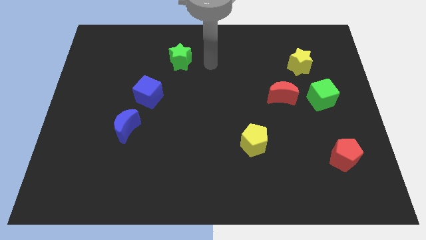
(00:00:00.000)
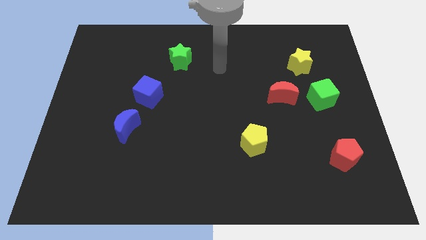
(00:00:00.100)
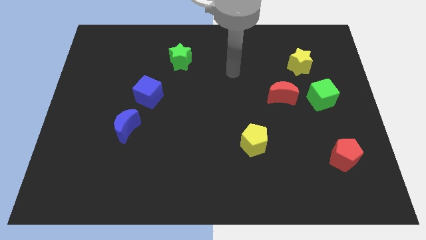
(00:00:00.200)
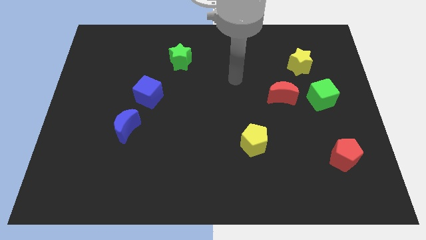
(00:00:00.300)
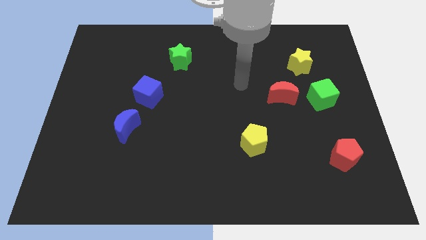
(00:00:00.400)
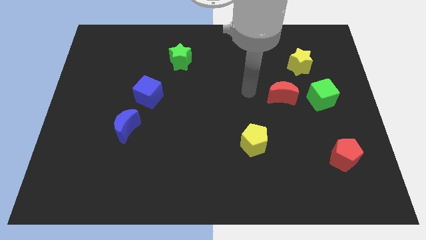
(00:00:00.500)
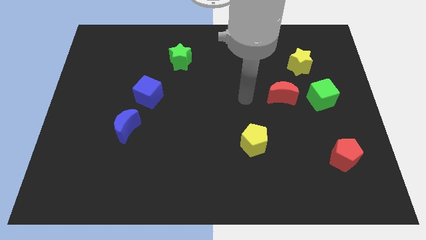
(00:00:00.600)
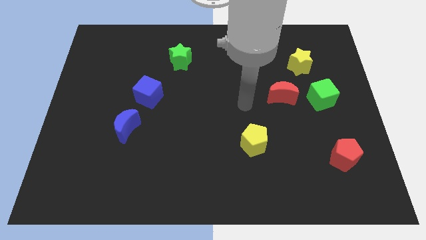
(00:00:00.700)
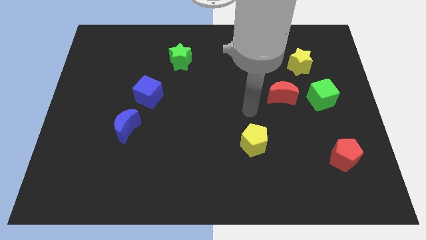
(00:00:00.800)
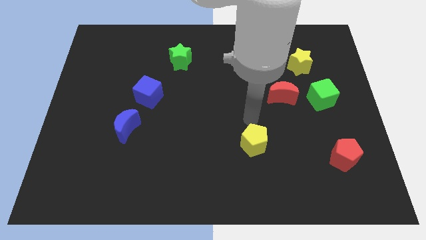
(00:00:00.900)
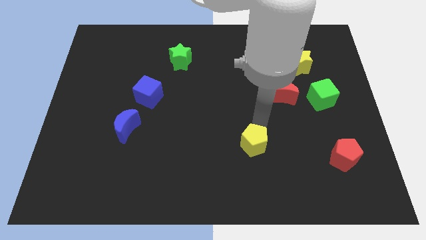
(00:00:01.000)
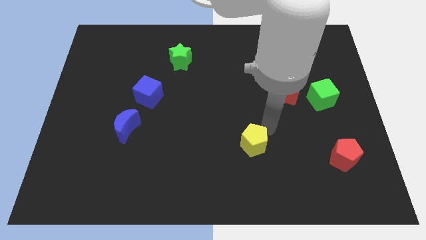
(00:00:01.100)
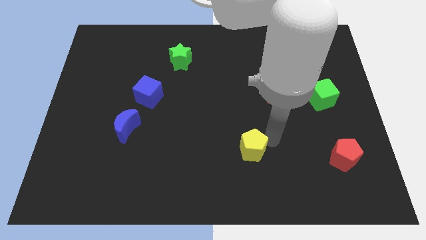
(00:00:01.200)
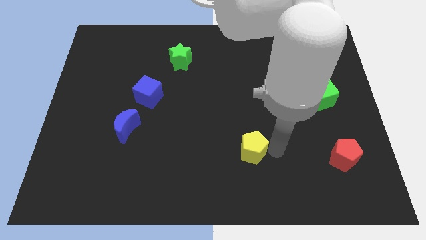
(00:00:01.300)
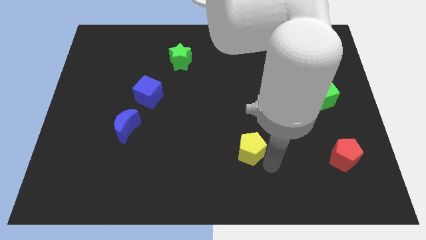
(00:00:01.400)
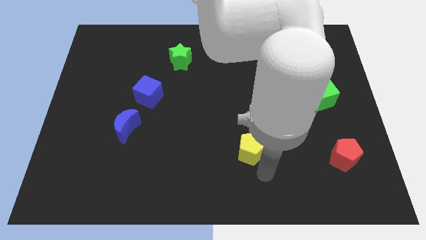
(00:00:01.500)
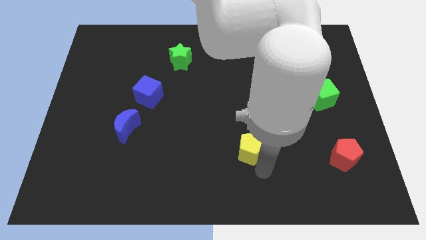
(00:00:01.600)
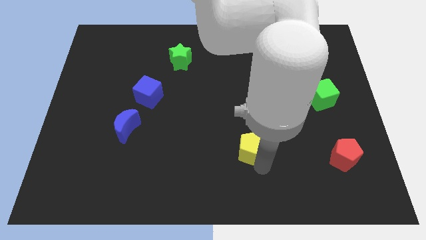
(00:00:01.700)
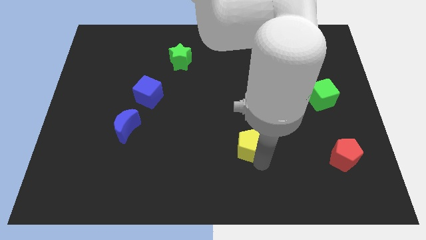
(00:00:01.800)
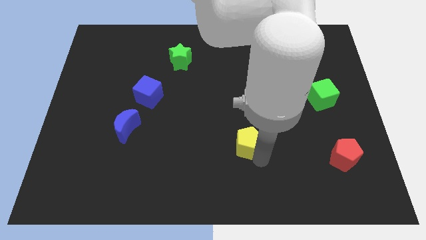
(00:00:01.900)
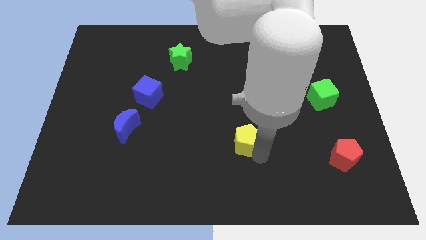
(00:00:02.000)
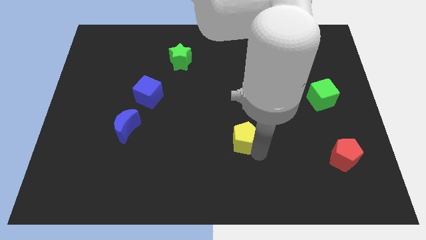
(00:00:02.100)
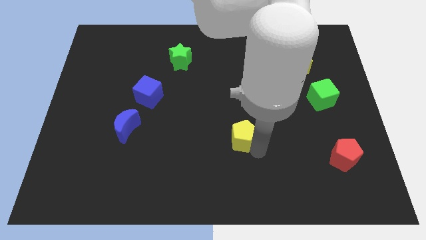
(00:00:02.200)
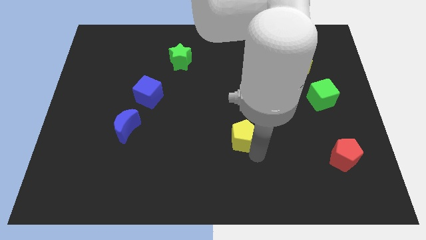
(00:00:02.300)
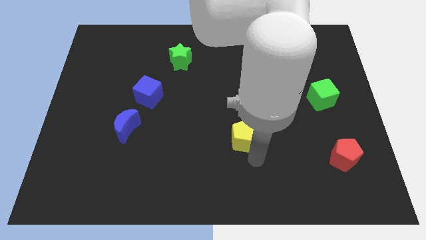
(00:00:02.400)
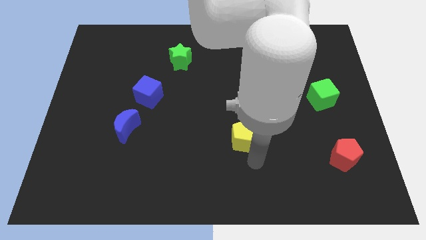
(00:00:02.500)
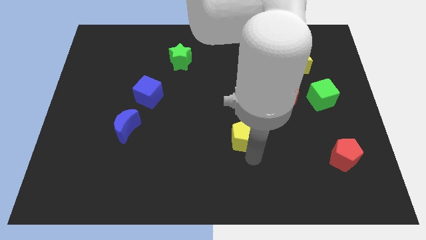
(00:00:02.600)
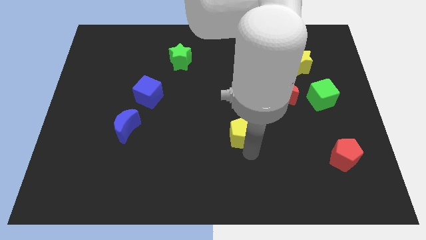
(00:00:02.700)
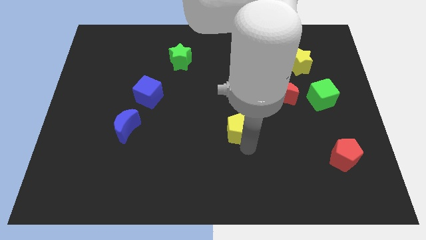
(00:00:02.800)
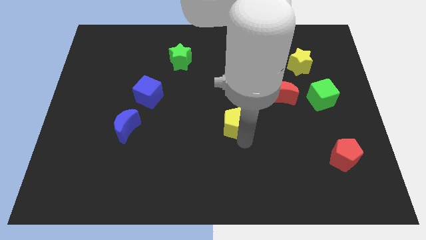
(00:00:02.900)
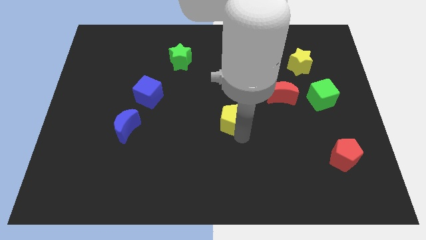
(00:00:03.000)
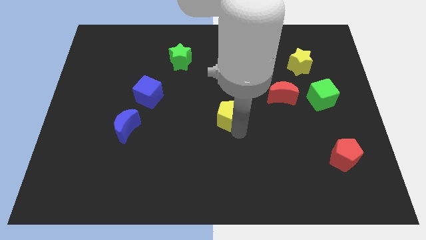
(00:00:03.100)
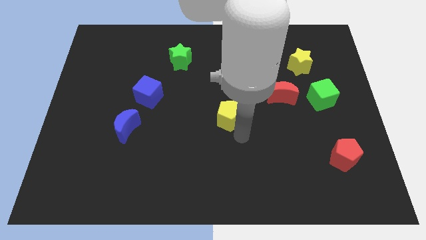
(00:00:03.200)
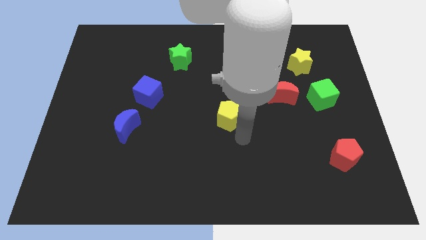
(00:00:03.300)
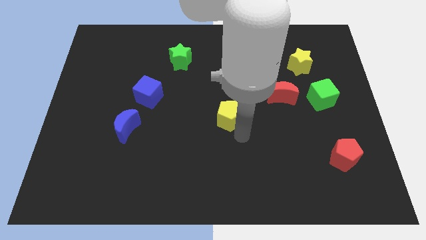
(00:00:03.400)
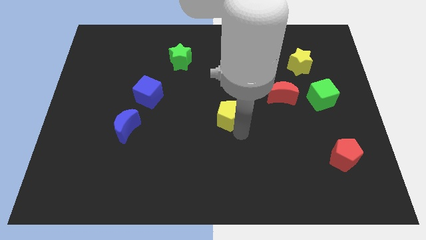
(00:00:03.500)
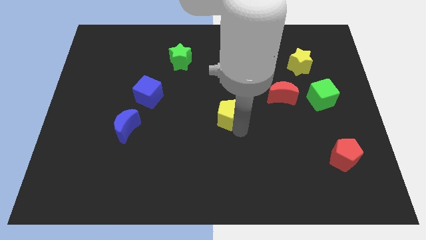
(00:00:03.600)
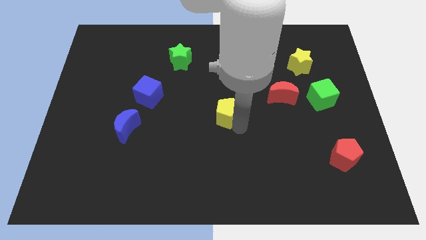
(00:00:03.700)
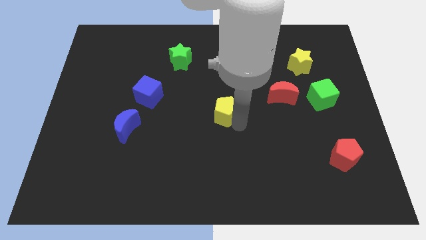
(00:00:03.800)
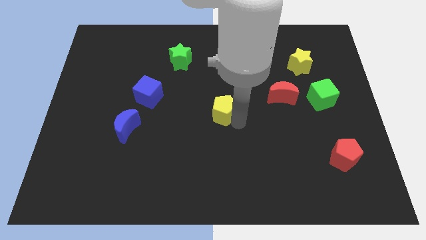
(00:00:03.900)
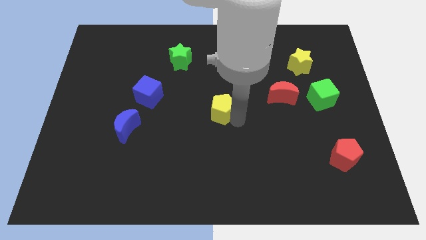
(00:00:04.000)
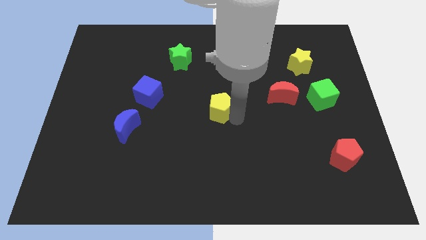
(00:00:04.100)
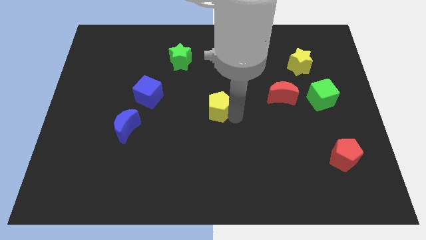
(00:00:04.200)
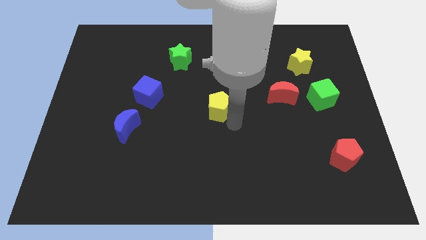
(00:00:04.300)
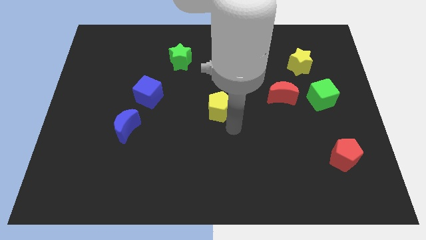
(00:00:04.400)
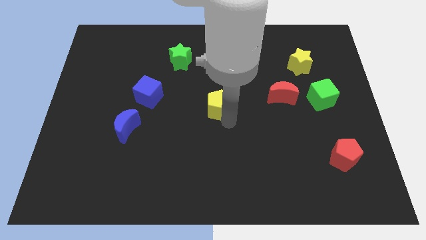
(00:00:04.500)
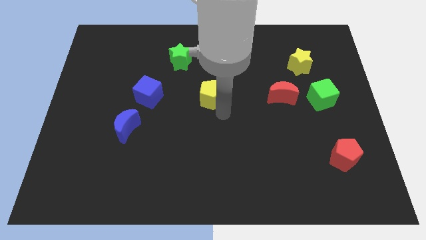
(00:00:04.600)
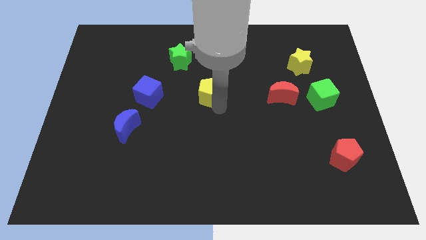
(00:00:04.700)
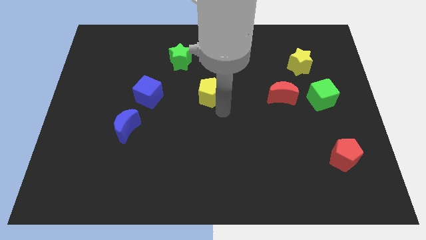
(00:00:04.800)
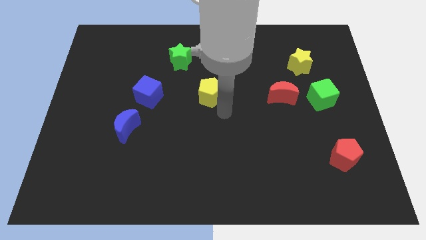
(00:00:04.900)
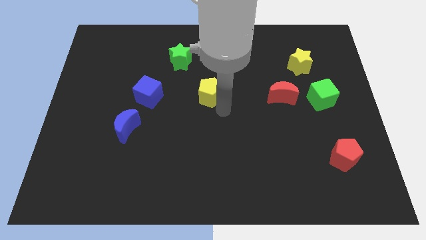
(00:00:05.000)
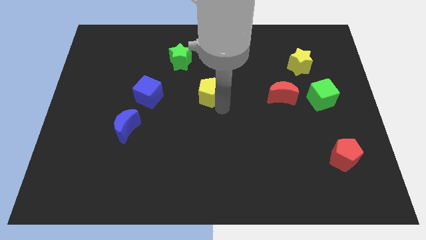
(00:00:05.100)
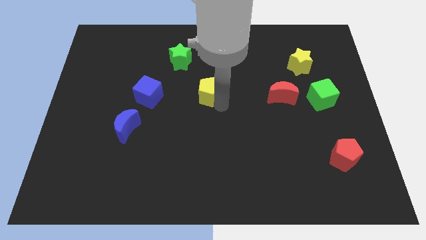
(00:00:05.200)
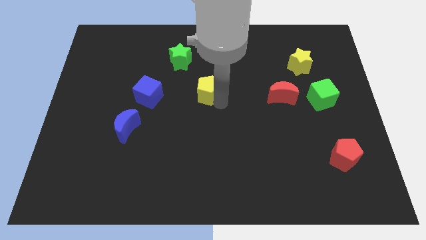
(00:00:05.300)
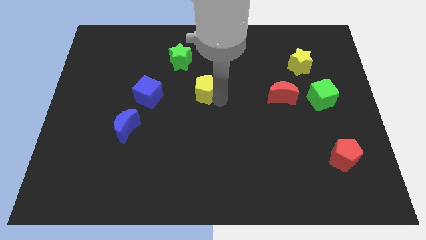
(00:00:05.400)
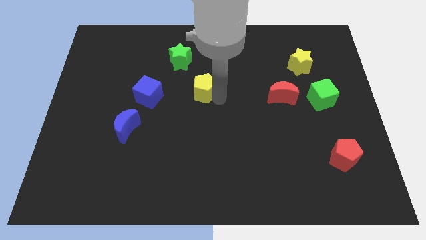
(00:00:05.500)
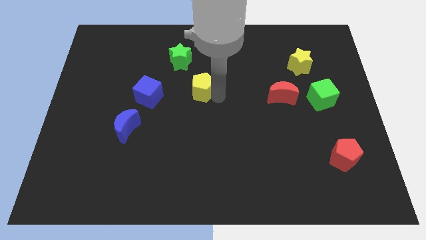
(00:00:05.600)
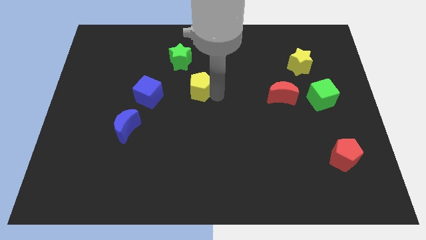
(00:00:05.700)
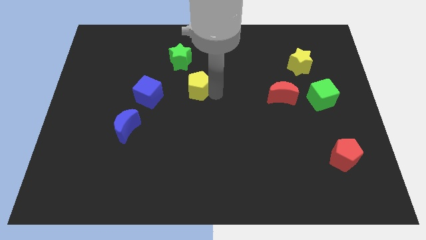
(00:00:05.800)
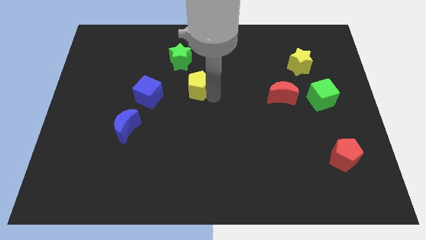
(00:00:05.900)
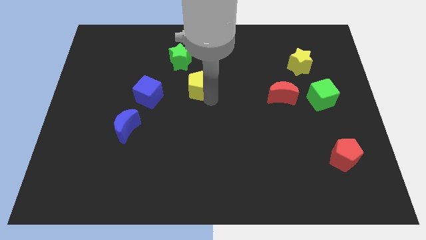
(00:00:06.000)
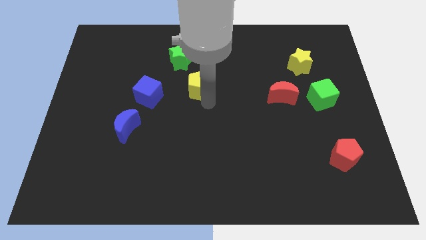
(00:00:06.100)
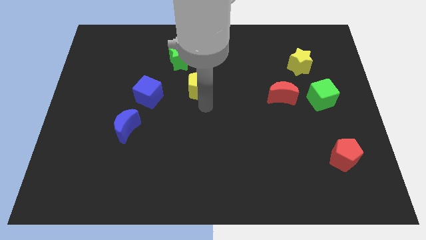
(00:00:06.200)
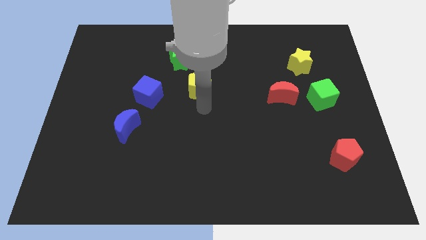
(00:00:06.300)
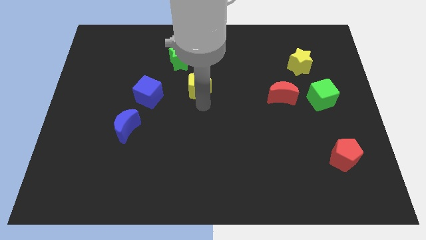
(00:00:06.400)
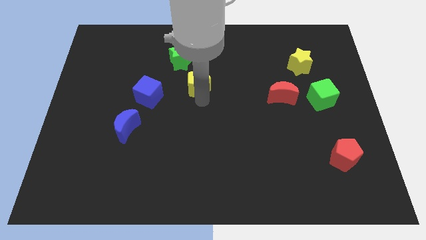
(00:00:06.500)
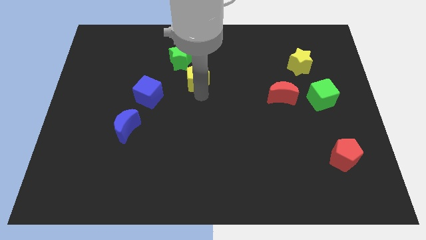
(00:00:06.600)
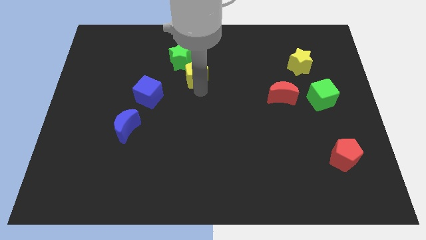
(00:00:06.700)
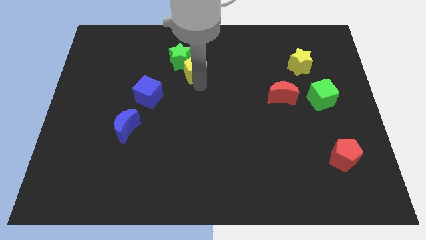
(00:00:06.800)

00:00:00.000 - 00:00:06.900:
put the yellow pentagon close to the green star
